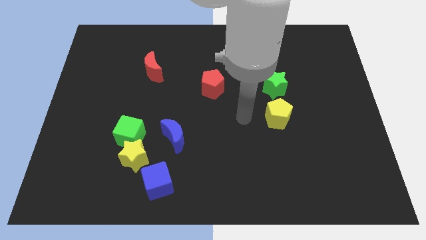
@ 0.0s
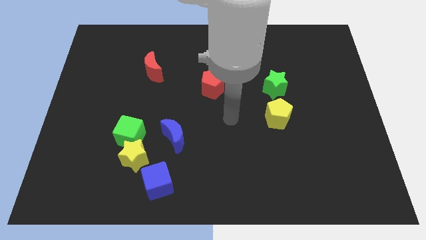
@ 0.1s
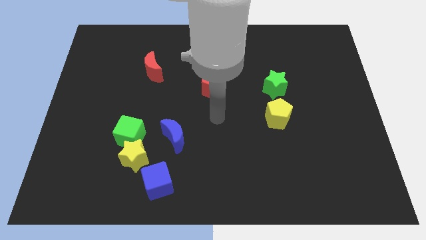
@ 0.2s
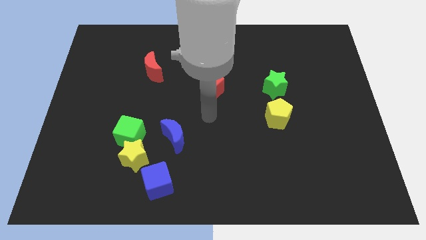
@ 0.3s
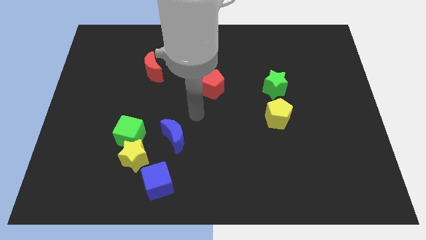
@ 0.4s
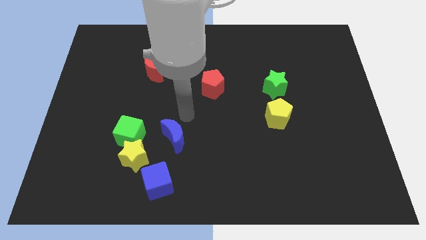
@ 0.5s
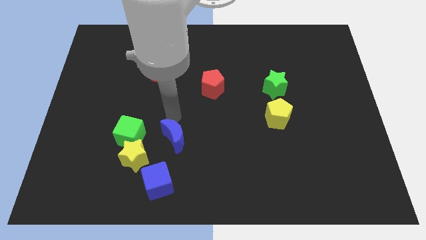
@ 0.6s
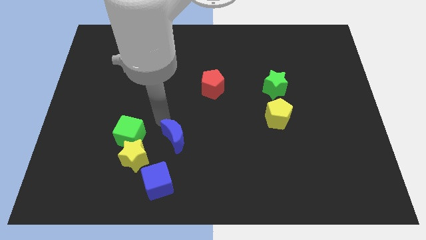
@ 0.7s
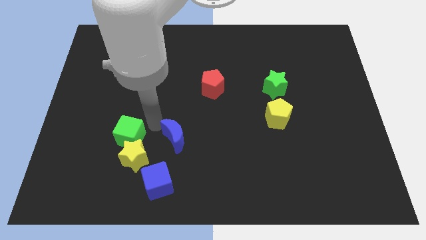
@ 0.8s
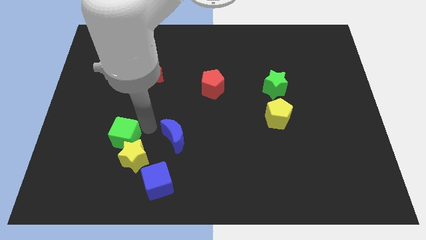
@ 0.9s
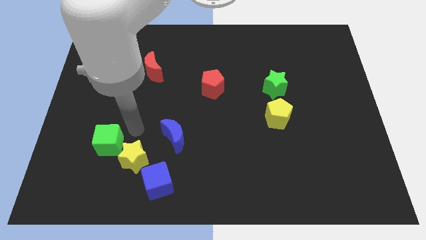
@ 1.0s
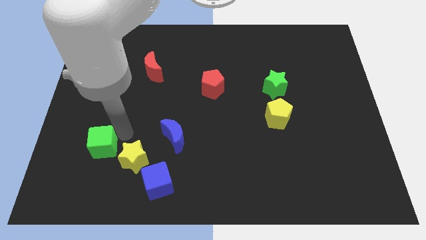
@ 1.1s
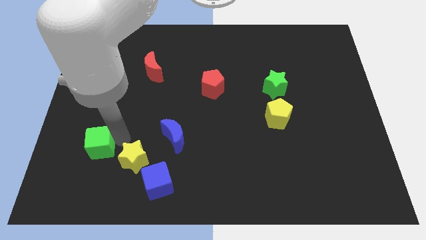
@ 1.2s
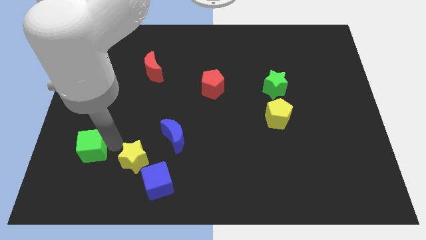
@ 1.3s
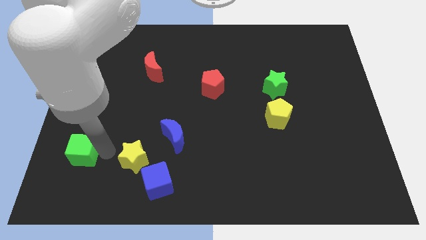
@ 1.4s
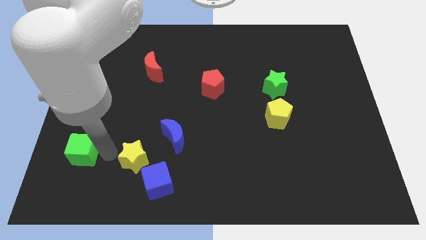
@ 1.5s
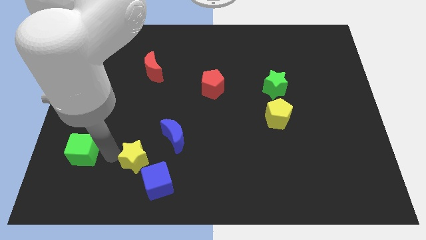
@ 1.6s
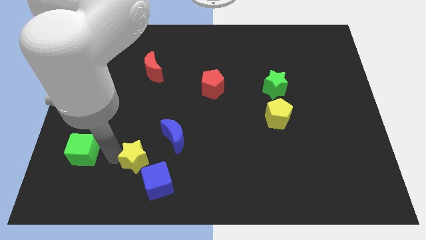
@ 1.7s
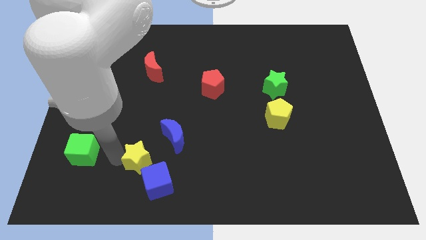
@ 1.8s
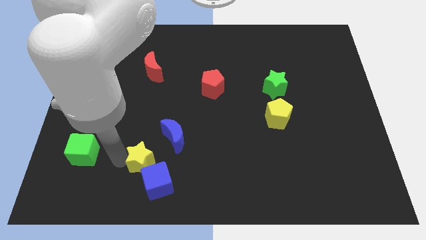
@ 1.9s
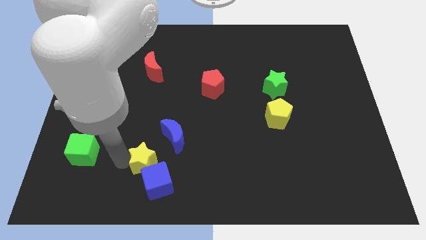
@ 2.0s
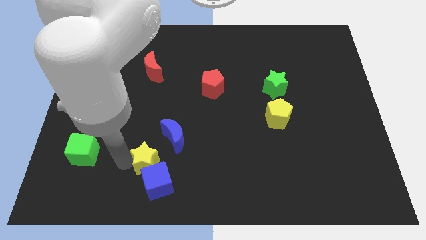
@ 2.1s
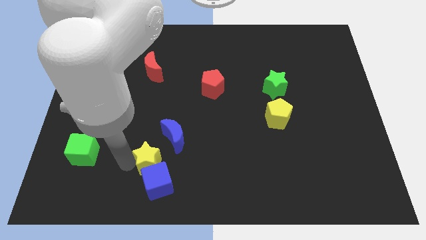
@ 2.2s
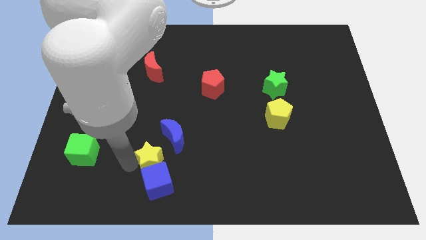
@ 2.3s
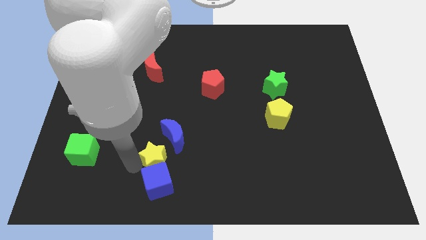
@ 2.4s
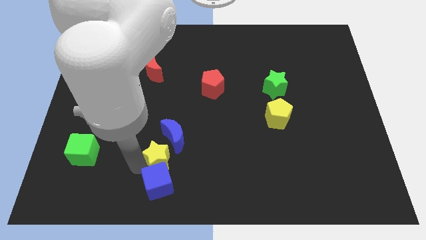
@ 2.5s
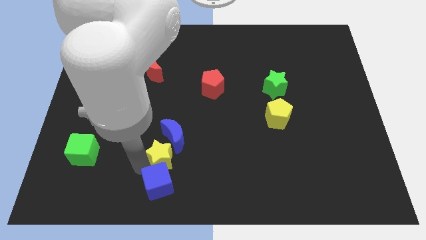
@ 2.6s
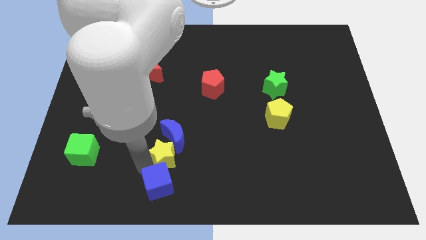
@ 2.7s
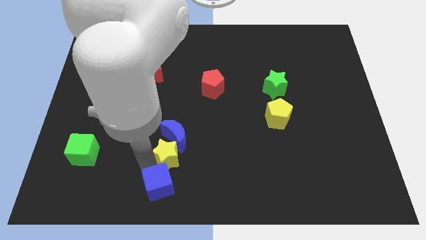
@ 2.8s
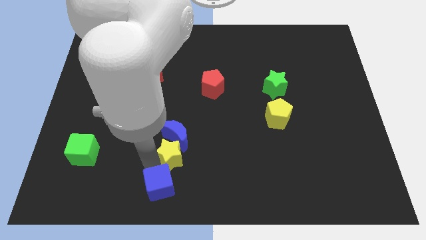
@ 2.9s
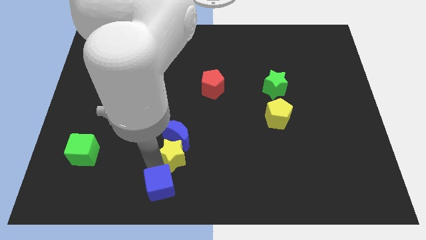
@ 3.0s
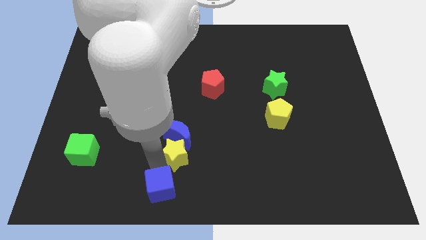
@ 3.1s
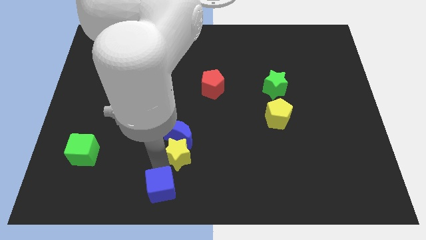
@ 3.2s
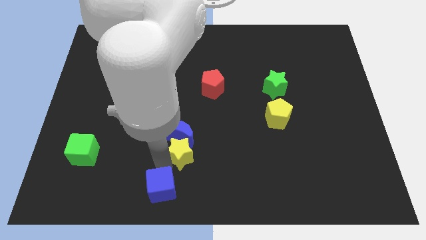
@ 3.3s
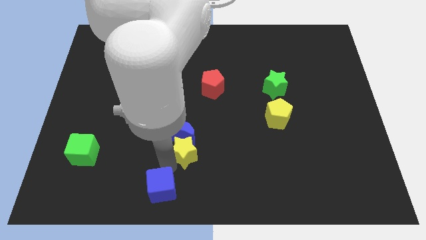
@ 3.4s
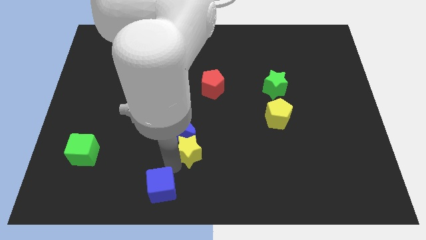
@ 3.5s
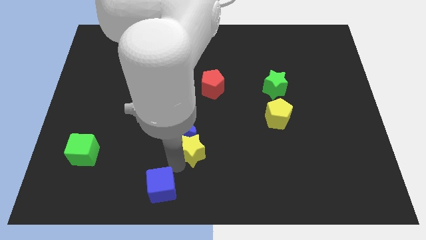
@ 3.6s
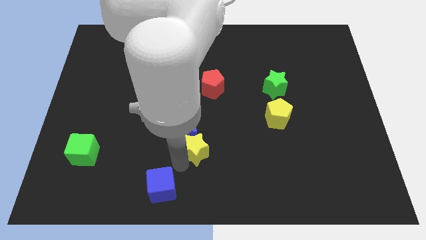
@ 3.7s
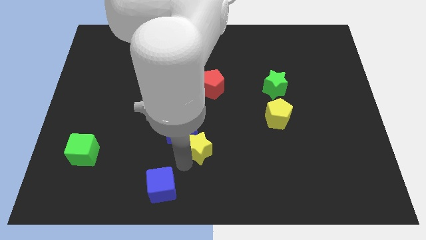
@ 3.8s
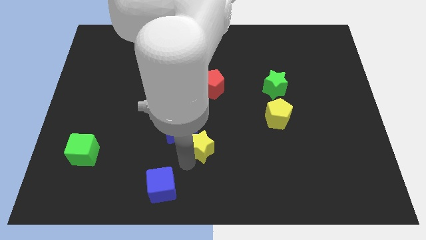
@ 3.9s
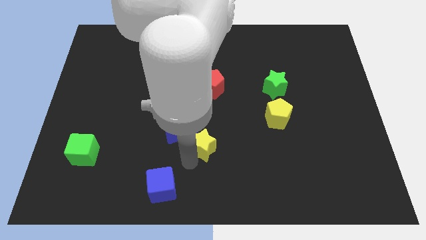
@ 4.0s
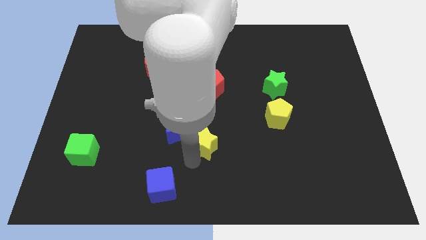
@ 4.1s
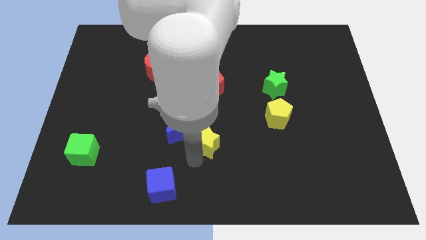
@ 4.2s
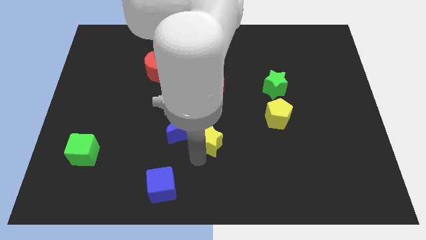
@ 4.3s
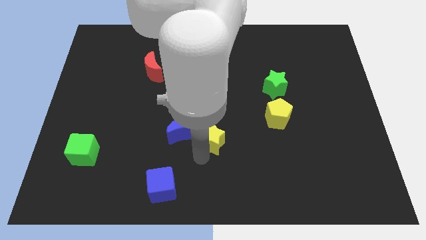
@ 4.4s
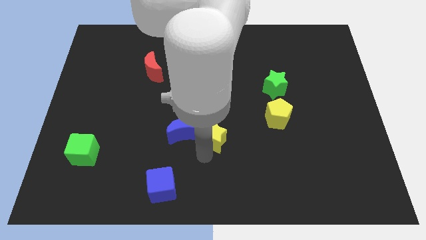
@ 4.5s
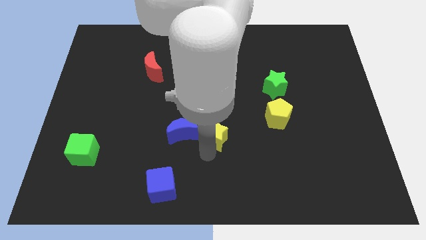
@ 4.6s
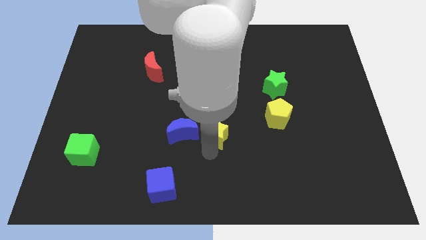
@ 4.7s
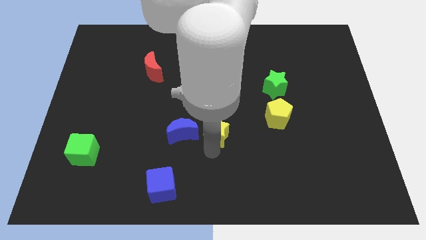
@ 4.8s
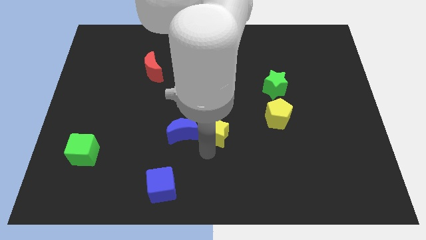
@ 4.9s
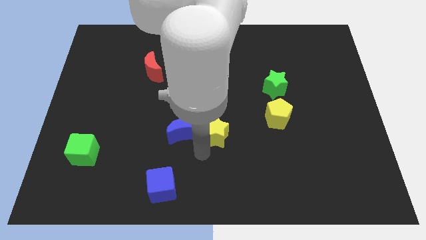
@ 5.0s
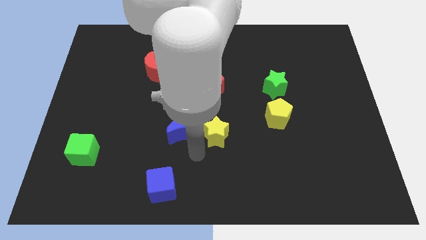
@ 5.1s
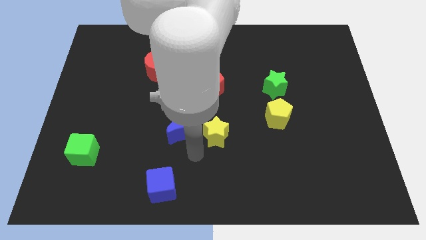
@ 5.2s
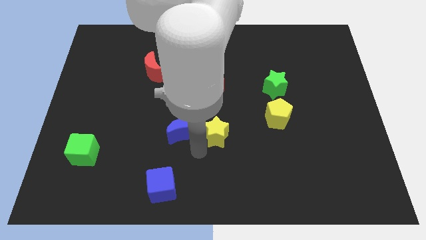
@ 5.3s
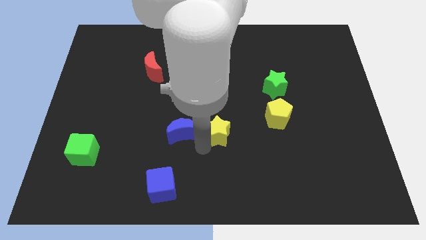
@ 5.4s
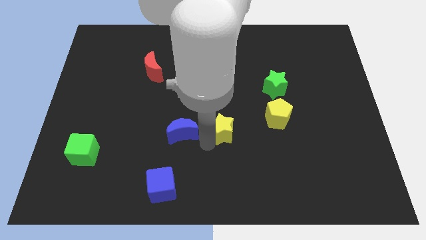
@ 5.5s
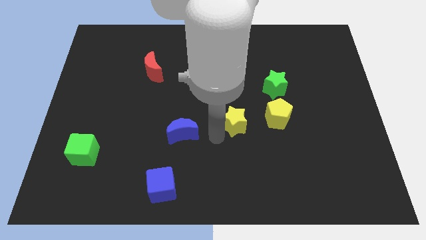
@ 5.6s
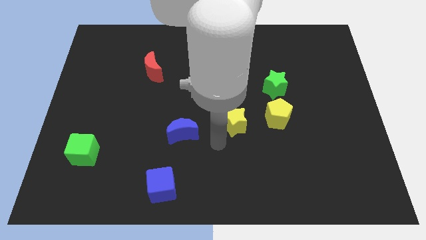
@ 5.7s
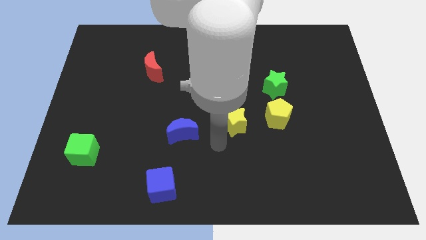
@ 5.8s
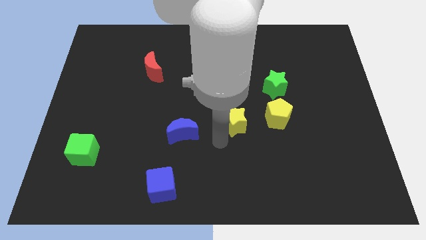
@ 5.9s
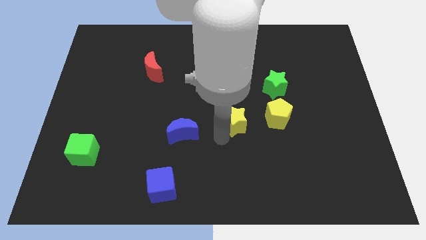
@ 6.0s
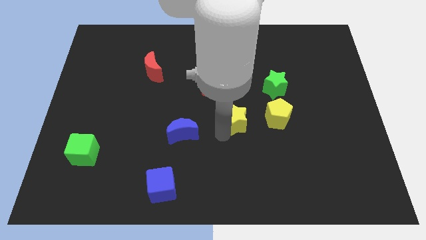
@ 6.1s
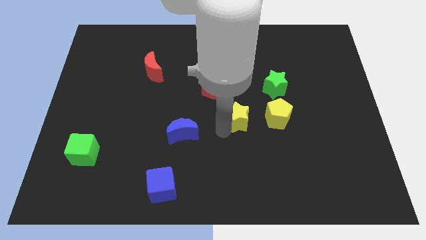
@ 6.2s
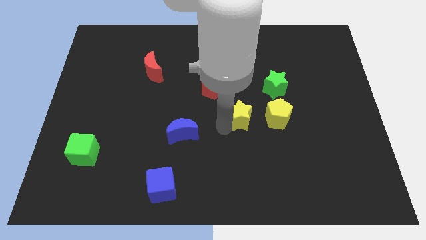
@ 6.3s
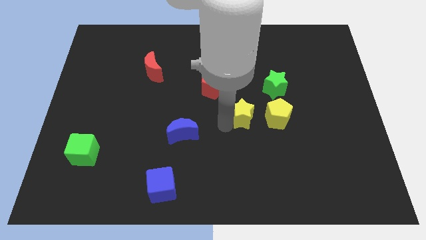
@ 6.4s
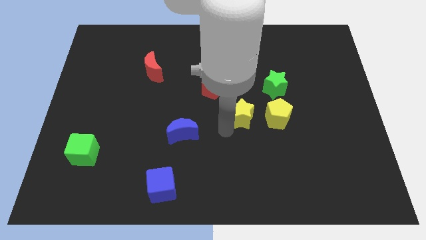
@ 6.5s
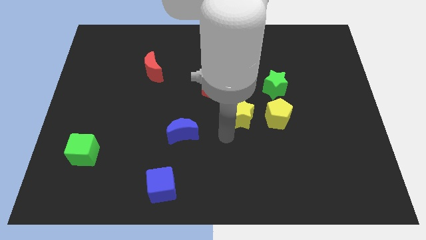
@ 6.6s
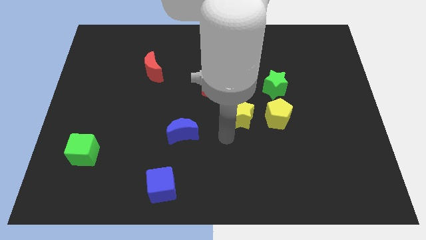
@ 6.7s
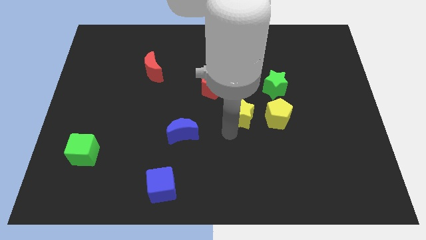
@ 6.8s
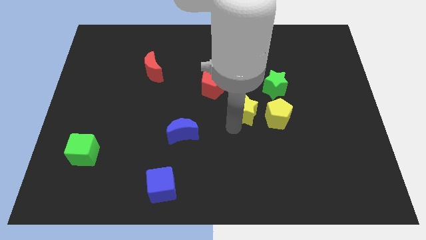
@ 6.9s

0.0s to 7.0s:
move the yellow star to the top left side of the yellow pentagon

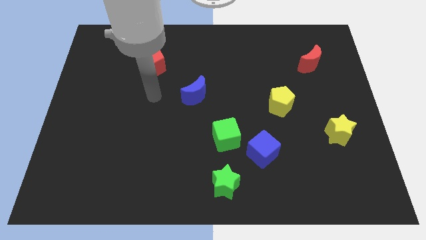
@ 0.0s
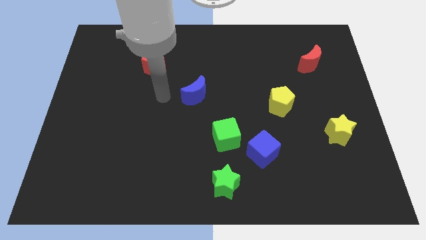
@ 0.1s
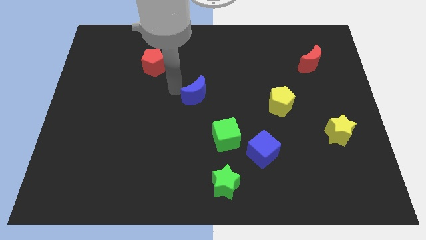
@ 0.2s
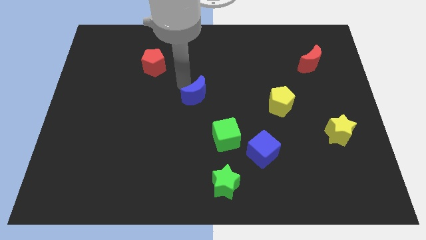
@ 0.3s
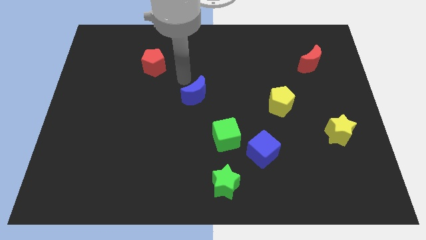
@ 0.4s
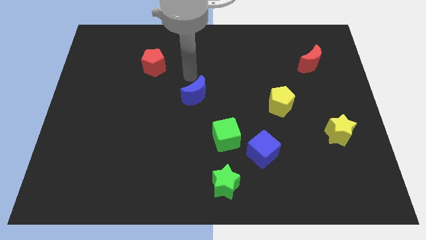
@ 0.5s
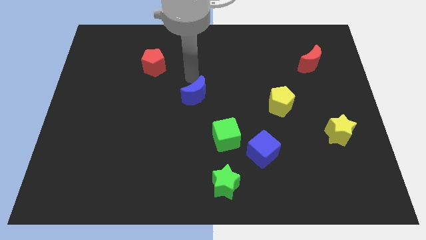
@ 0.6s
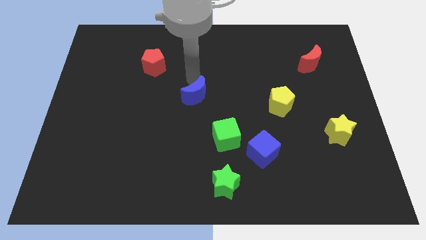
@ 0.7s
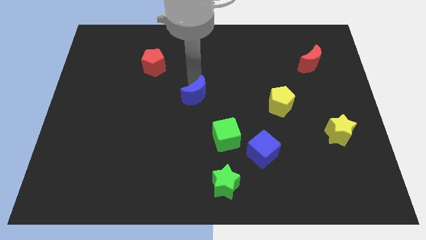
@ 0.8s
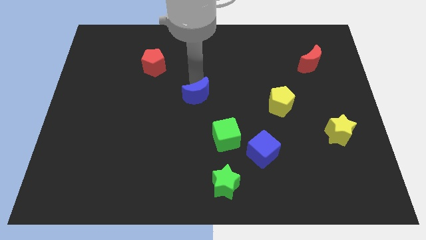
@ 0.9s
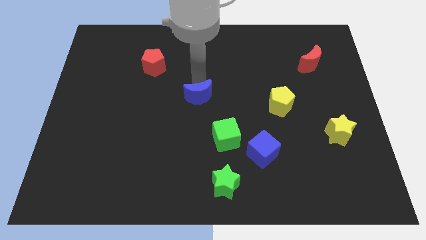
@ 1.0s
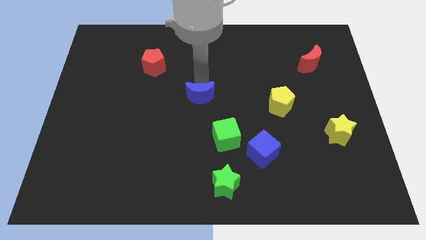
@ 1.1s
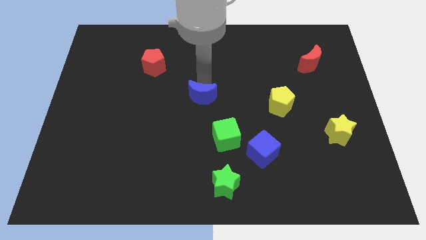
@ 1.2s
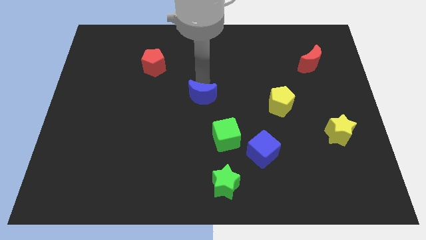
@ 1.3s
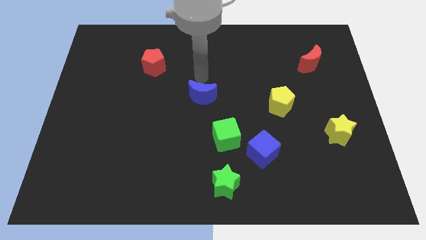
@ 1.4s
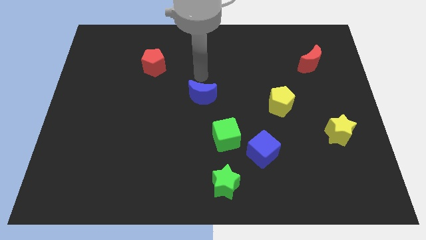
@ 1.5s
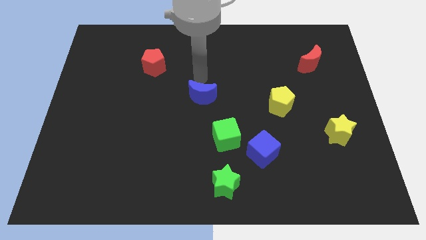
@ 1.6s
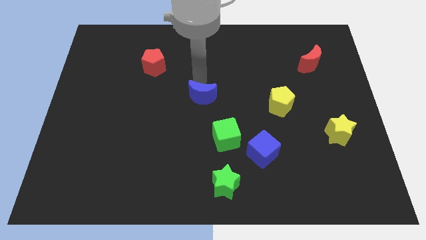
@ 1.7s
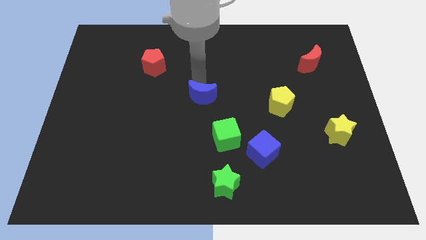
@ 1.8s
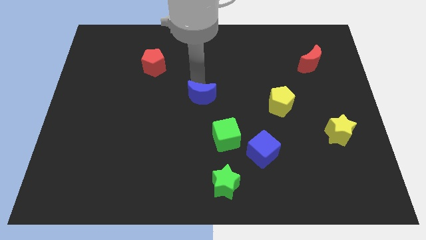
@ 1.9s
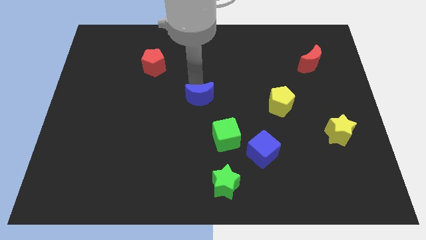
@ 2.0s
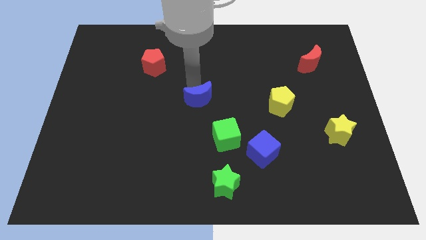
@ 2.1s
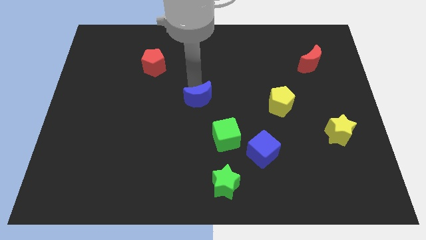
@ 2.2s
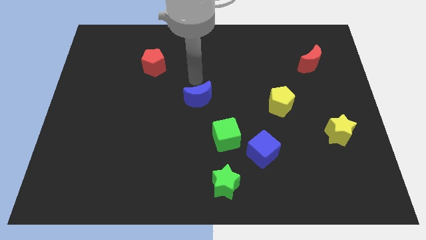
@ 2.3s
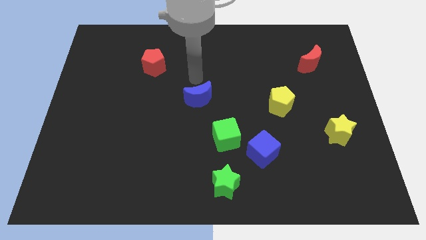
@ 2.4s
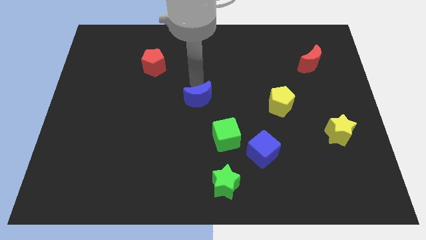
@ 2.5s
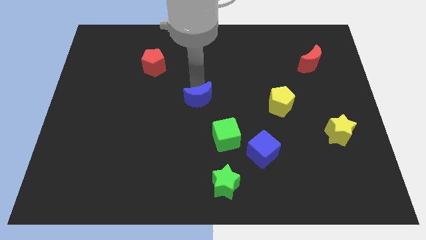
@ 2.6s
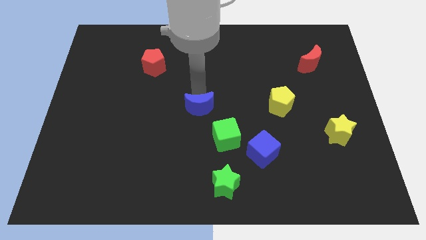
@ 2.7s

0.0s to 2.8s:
slide the blue moon diagonally up and to the left of the green cube
